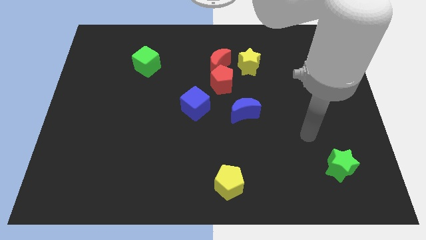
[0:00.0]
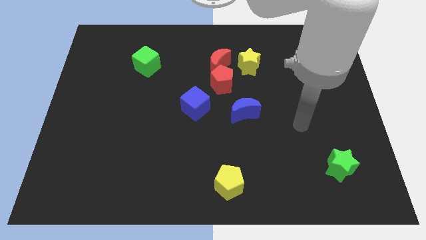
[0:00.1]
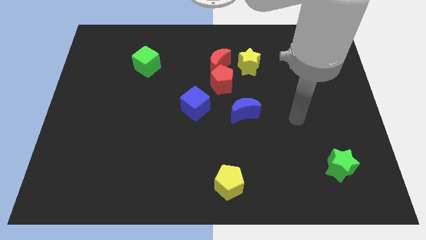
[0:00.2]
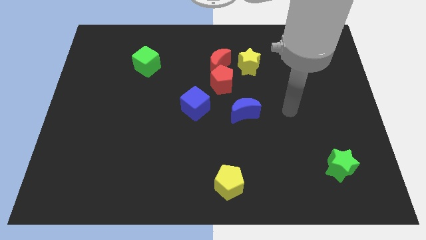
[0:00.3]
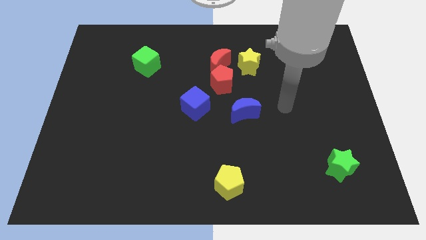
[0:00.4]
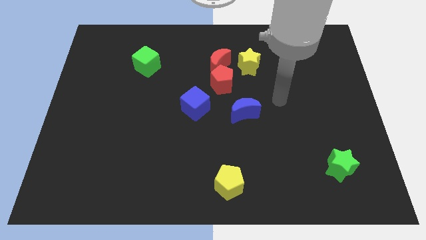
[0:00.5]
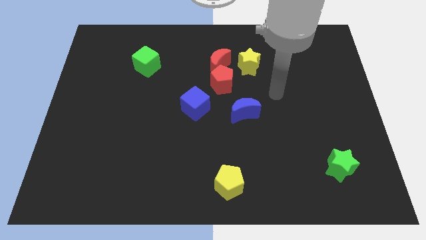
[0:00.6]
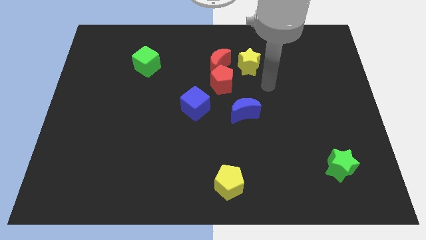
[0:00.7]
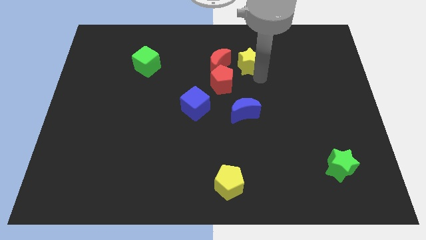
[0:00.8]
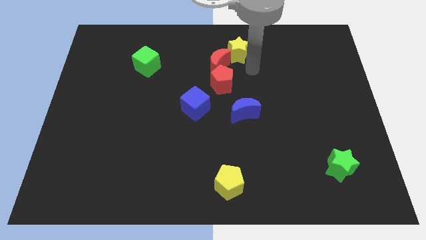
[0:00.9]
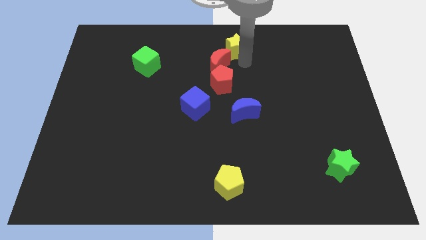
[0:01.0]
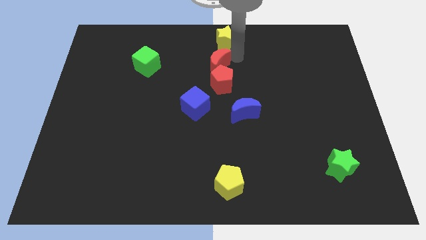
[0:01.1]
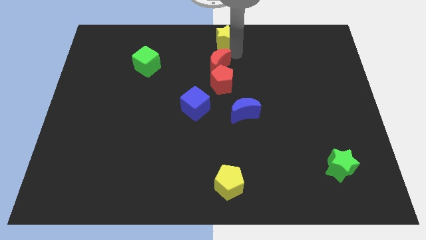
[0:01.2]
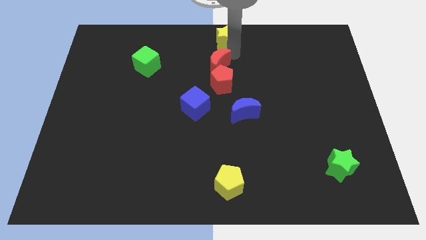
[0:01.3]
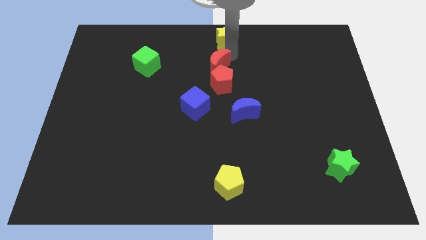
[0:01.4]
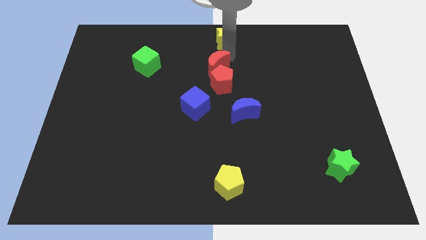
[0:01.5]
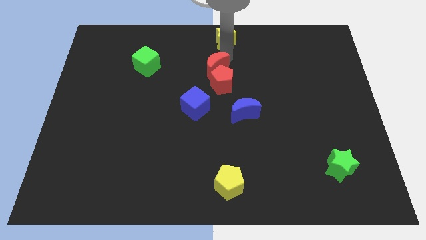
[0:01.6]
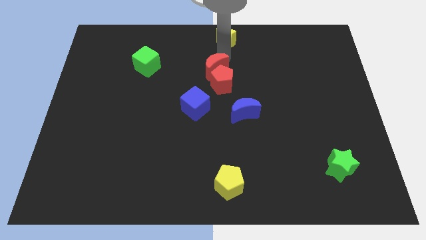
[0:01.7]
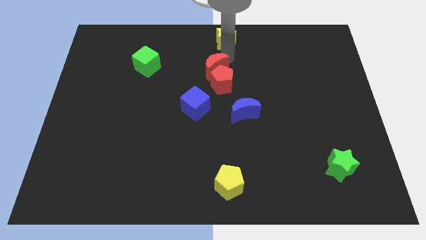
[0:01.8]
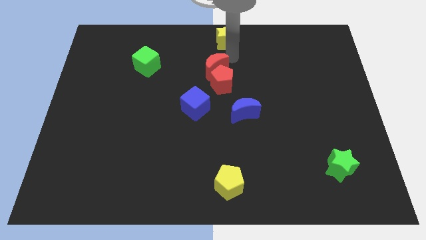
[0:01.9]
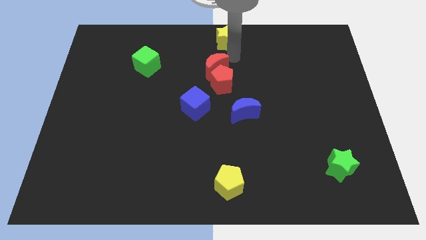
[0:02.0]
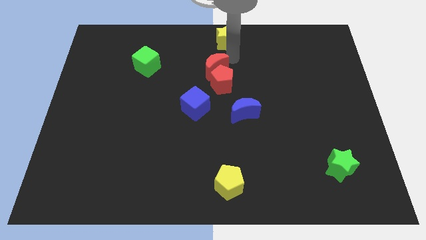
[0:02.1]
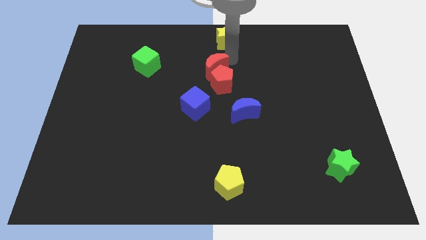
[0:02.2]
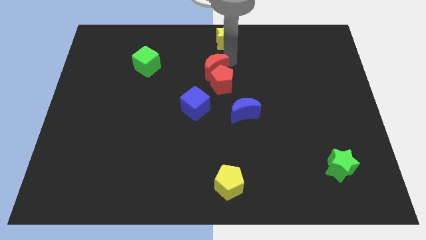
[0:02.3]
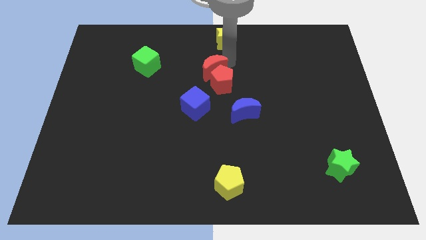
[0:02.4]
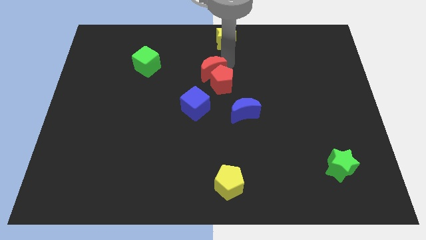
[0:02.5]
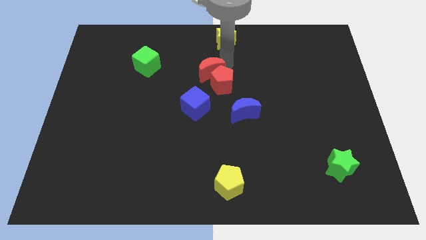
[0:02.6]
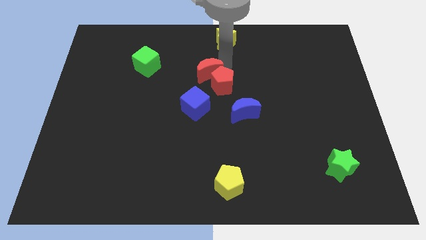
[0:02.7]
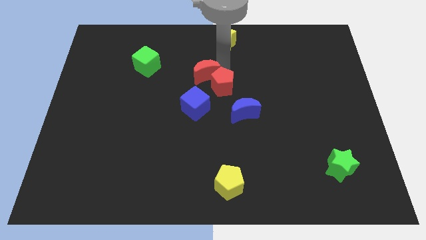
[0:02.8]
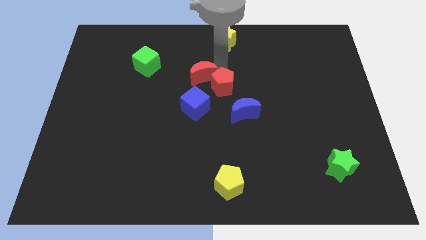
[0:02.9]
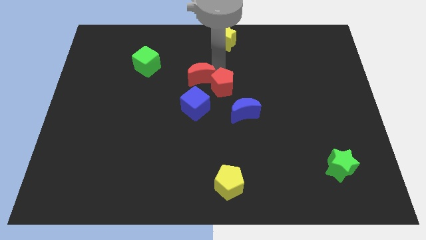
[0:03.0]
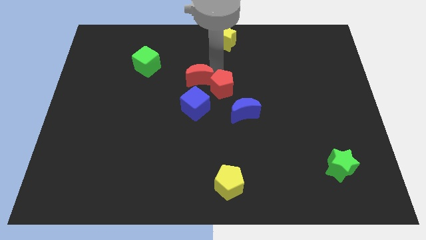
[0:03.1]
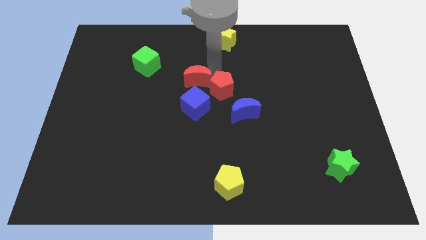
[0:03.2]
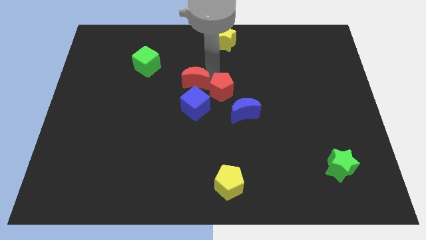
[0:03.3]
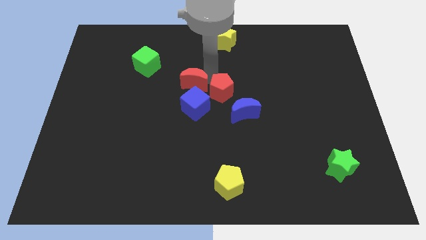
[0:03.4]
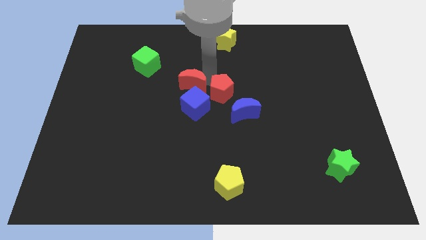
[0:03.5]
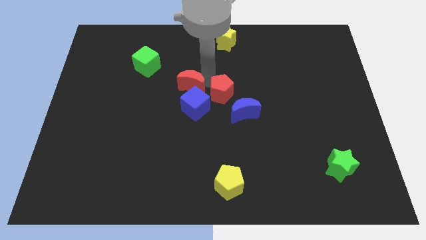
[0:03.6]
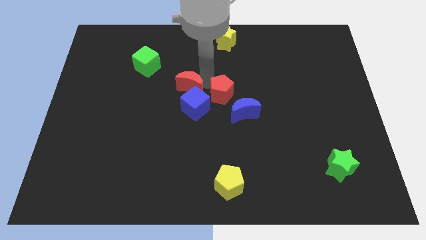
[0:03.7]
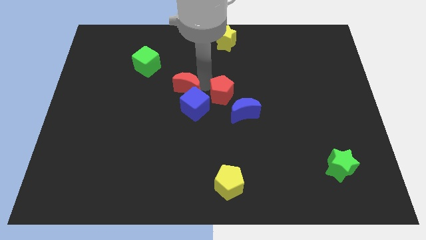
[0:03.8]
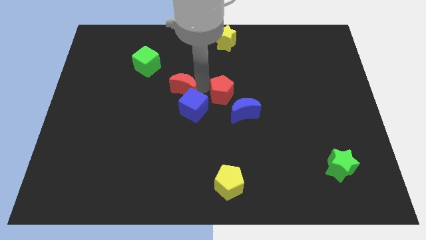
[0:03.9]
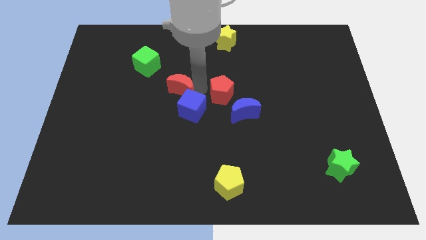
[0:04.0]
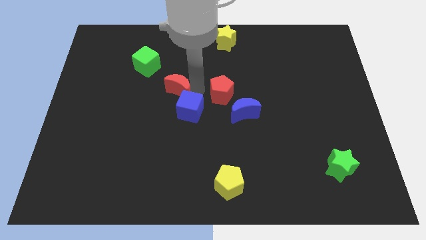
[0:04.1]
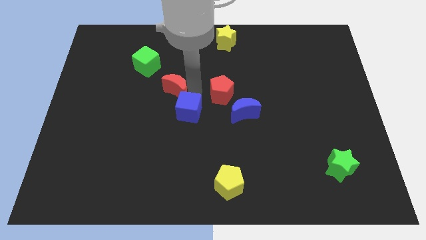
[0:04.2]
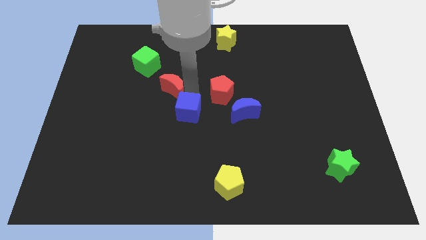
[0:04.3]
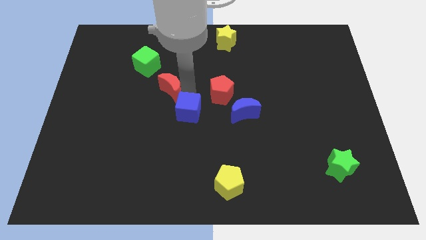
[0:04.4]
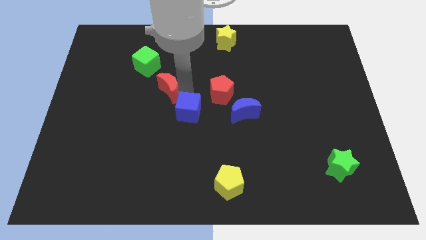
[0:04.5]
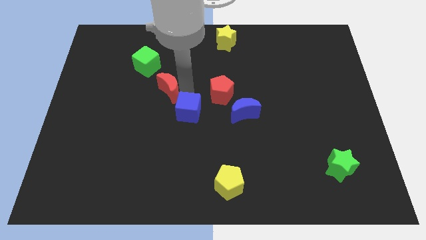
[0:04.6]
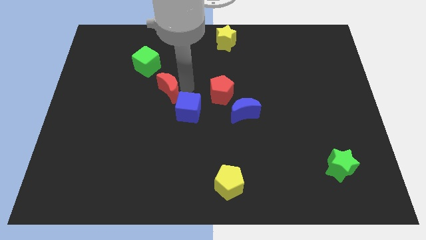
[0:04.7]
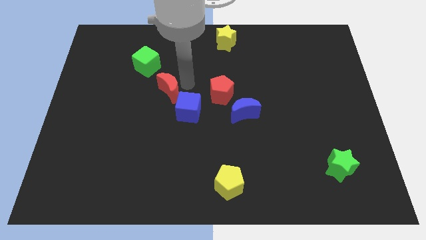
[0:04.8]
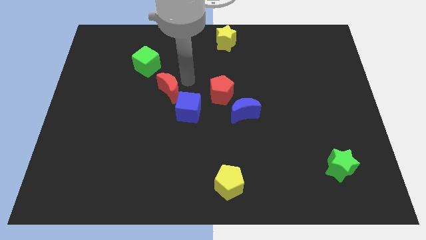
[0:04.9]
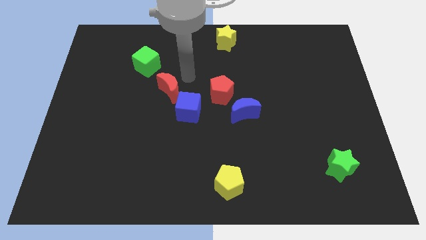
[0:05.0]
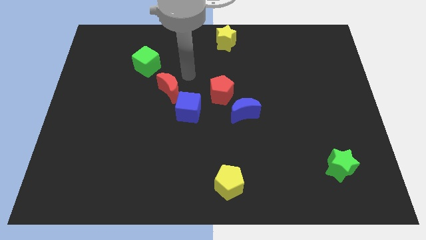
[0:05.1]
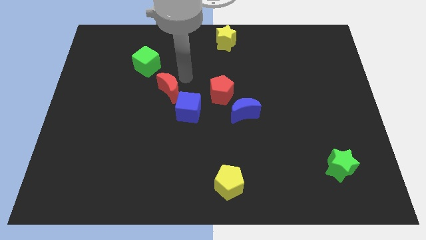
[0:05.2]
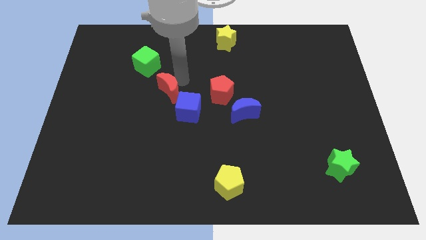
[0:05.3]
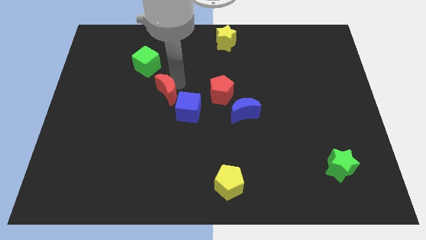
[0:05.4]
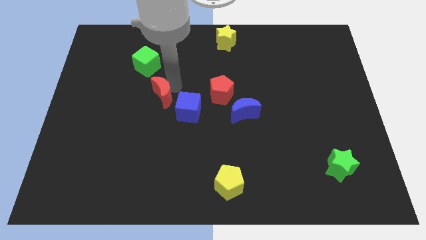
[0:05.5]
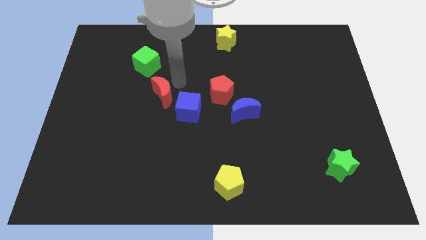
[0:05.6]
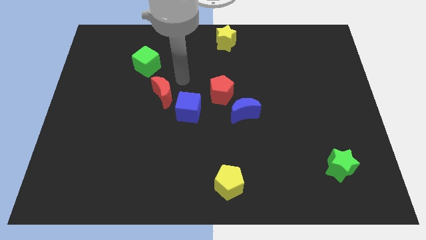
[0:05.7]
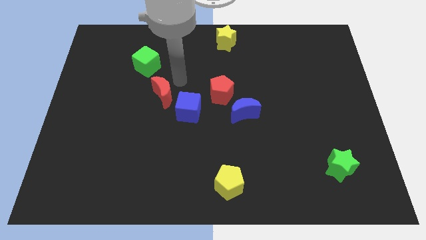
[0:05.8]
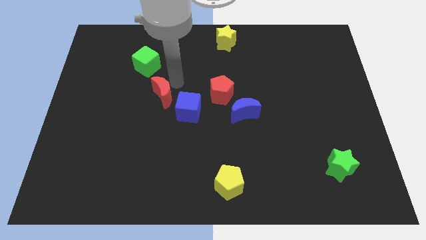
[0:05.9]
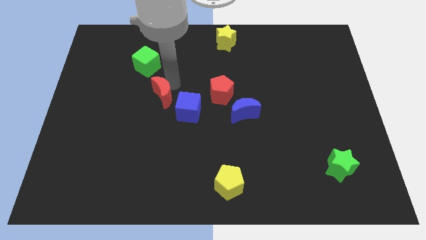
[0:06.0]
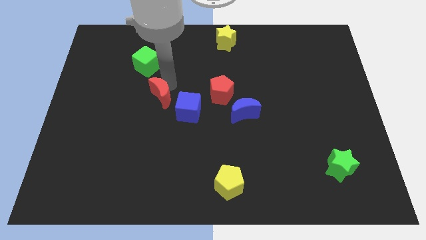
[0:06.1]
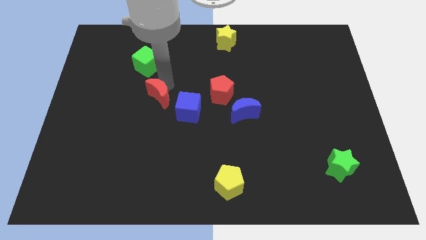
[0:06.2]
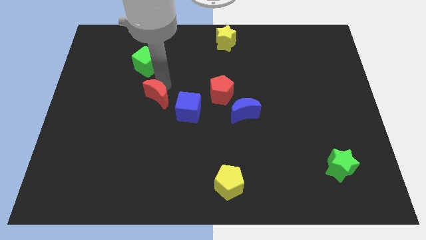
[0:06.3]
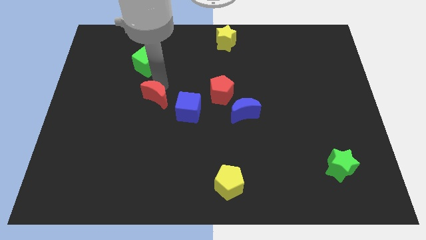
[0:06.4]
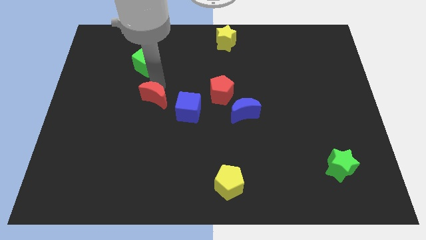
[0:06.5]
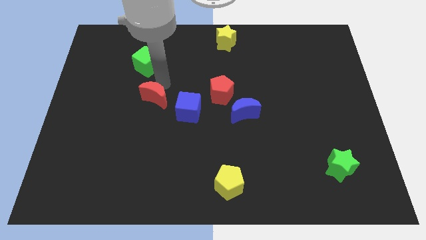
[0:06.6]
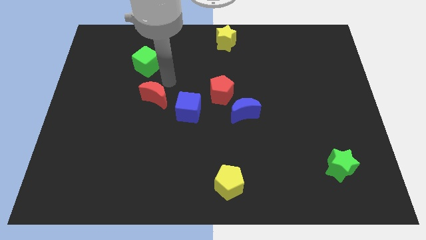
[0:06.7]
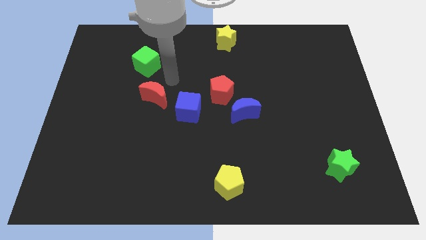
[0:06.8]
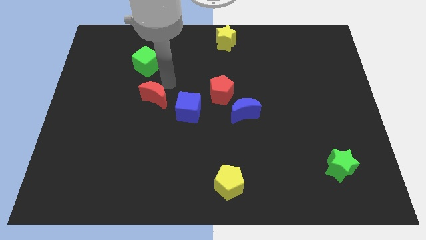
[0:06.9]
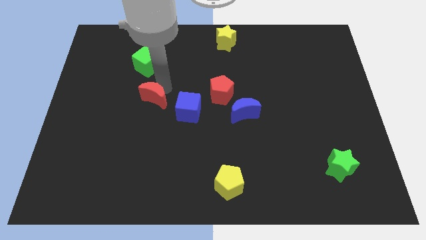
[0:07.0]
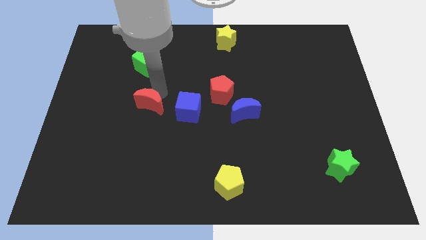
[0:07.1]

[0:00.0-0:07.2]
push the red moon downwards and left

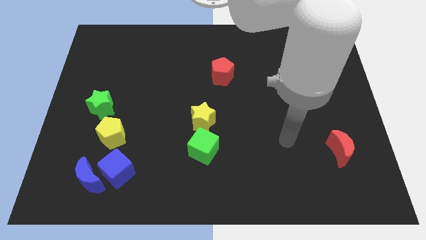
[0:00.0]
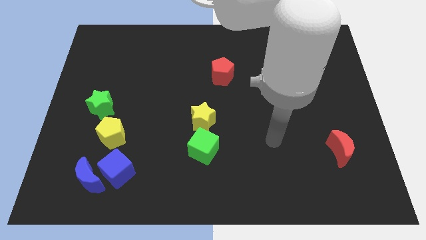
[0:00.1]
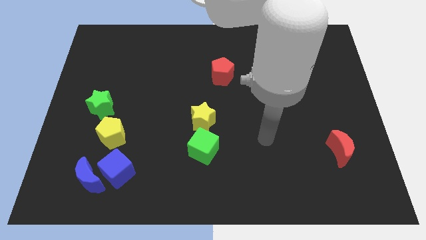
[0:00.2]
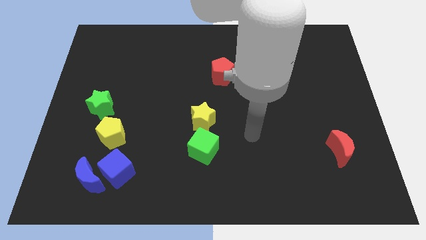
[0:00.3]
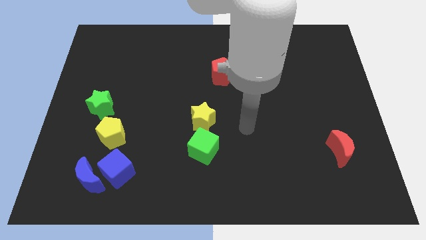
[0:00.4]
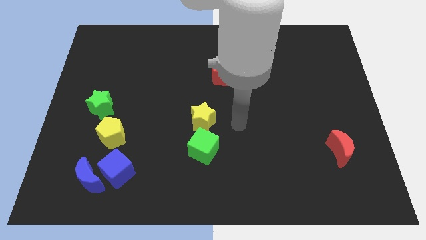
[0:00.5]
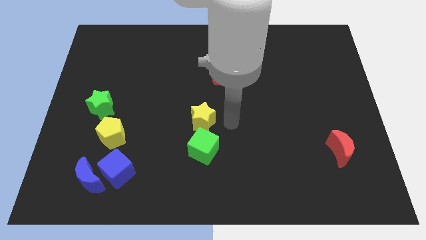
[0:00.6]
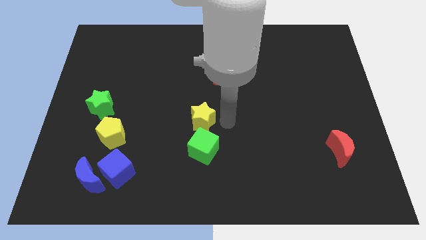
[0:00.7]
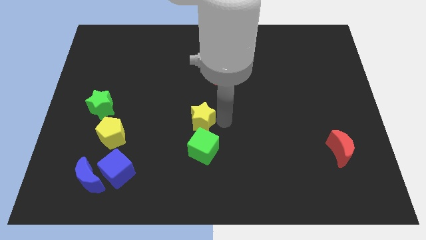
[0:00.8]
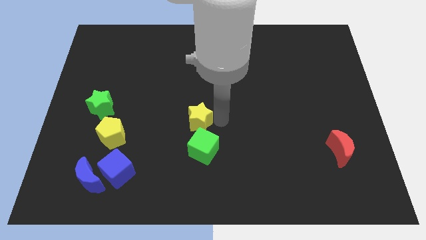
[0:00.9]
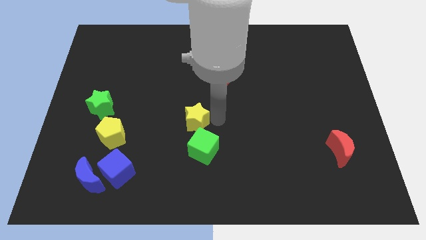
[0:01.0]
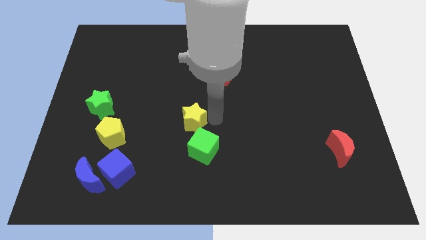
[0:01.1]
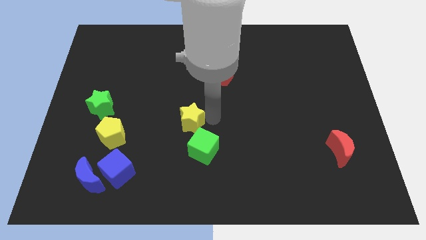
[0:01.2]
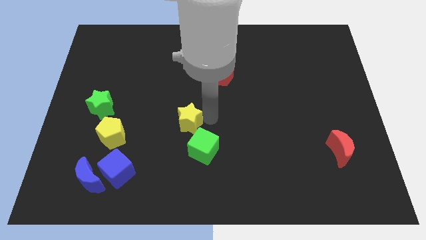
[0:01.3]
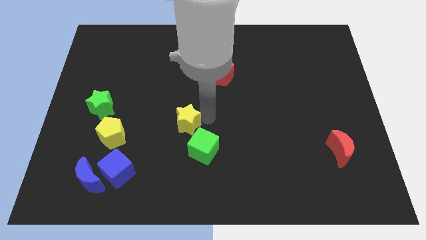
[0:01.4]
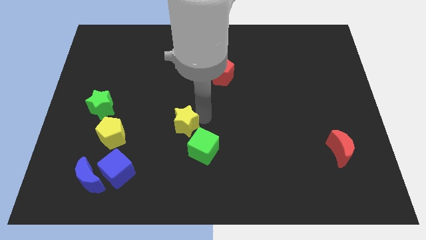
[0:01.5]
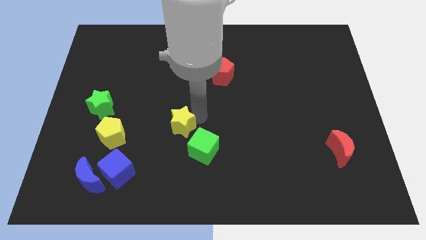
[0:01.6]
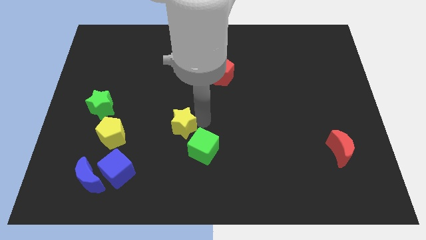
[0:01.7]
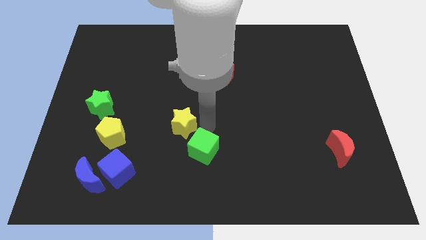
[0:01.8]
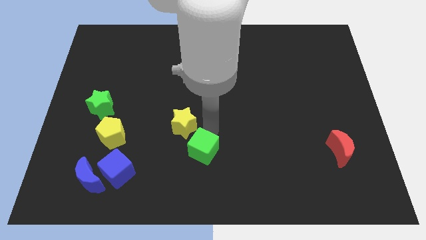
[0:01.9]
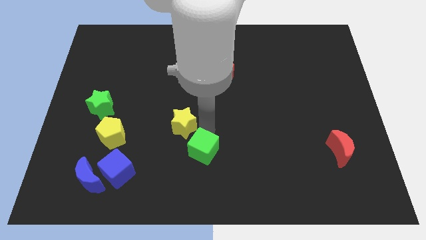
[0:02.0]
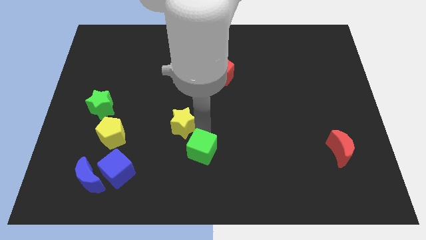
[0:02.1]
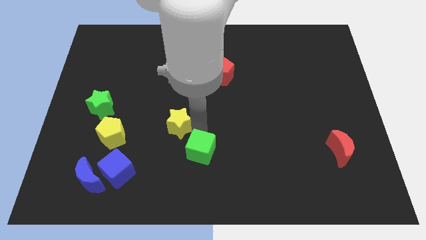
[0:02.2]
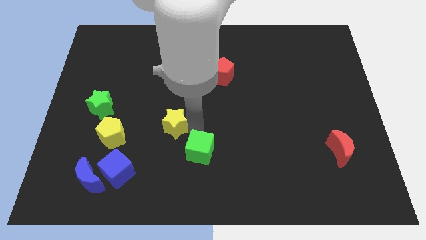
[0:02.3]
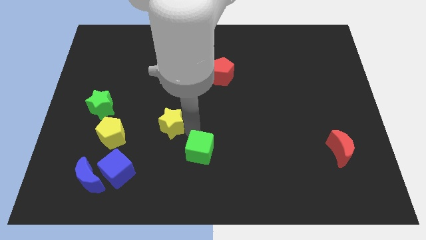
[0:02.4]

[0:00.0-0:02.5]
push the yellow star left somewhat
